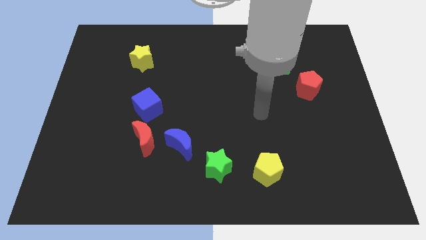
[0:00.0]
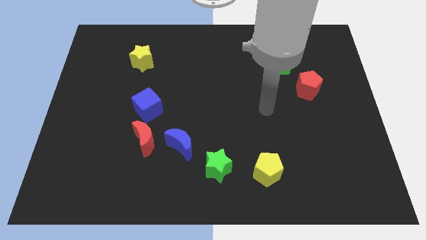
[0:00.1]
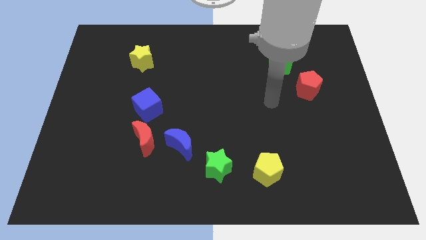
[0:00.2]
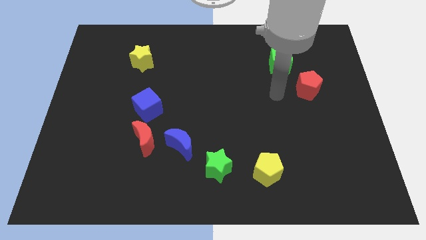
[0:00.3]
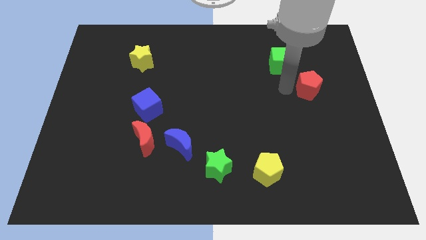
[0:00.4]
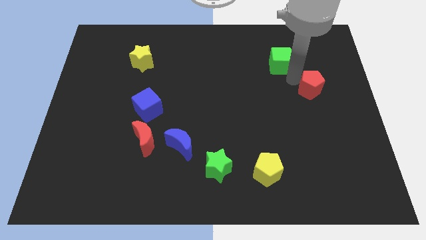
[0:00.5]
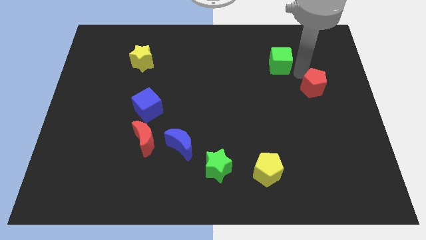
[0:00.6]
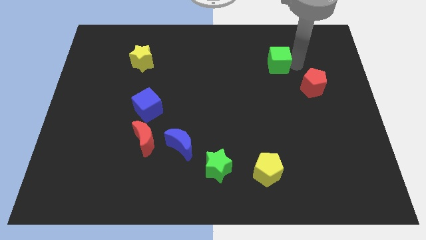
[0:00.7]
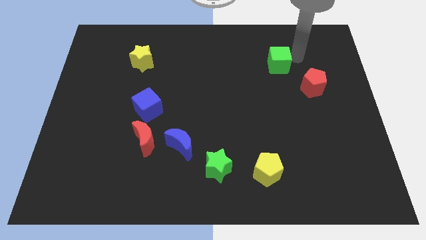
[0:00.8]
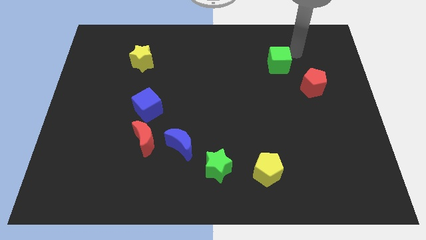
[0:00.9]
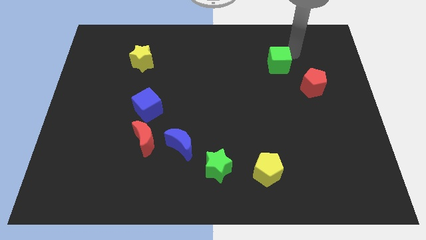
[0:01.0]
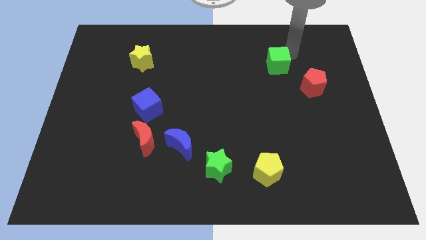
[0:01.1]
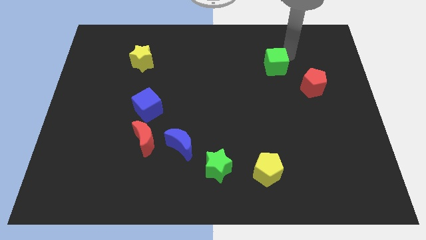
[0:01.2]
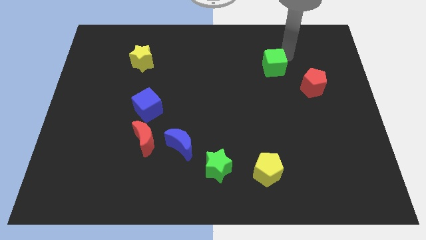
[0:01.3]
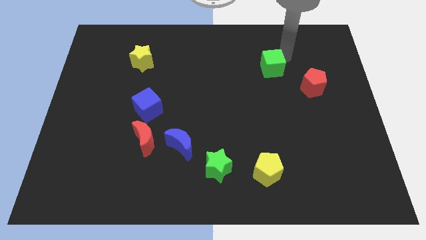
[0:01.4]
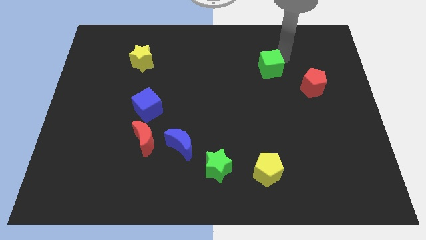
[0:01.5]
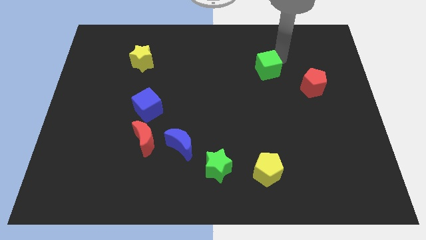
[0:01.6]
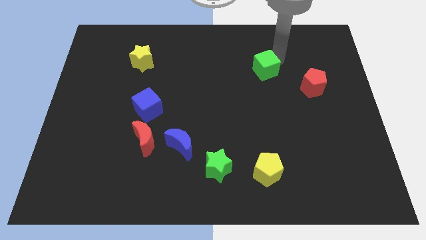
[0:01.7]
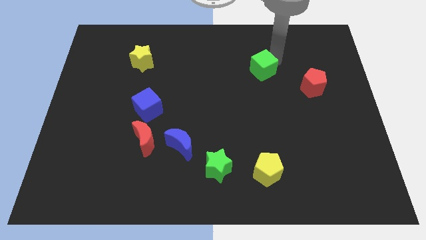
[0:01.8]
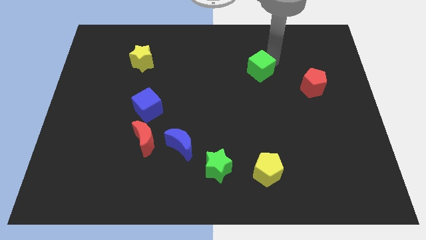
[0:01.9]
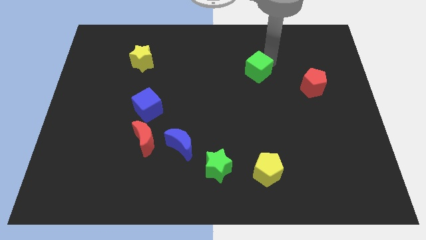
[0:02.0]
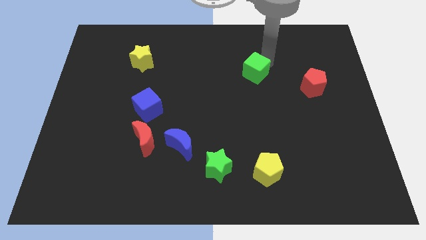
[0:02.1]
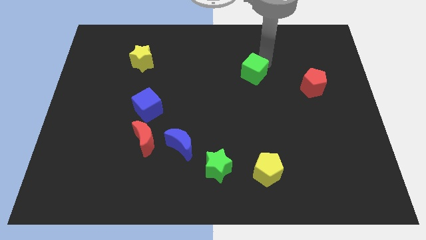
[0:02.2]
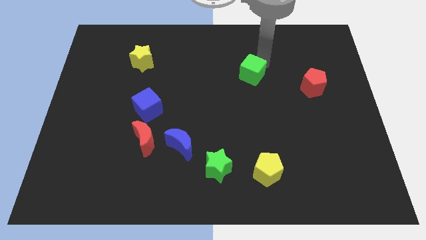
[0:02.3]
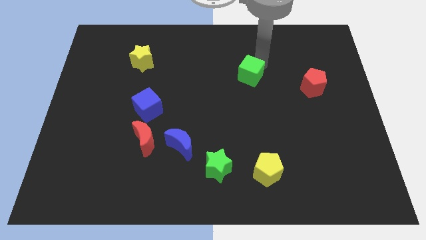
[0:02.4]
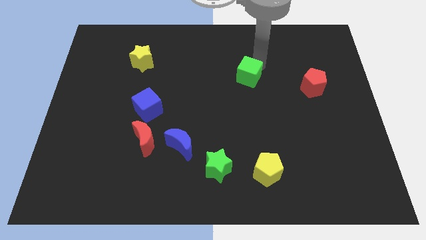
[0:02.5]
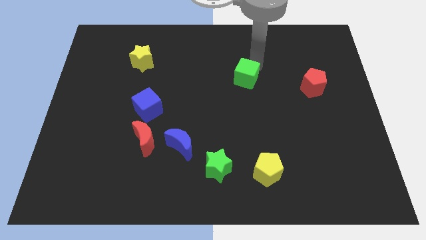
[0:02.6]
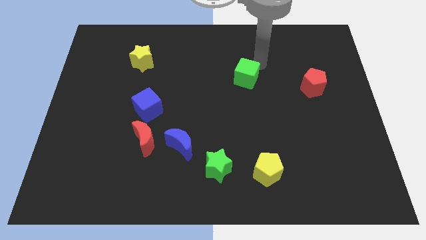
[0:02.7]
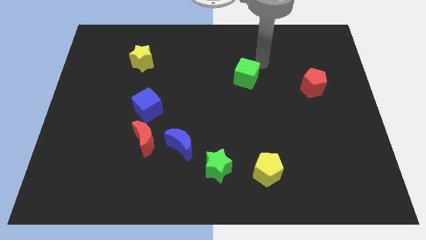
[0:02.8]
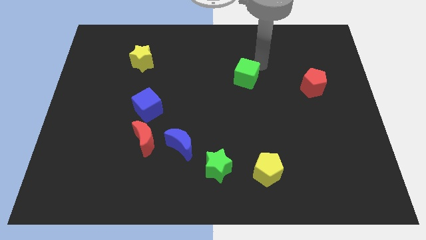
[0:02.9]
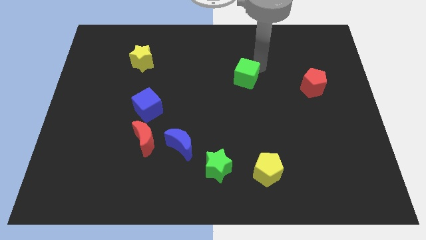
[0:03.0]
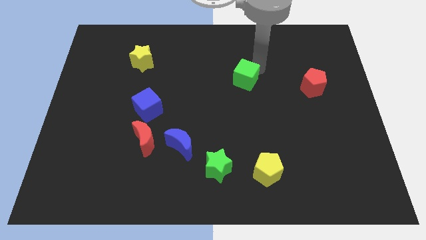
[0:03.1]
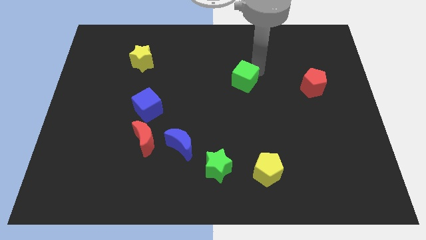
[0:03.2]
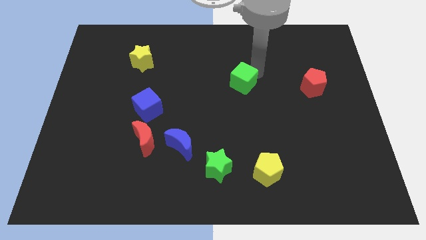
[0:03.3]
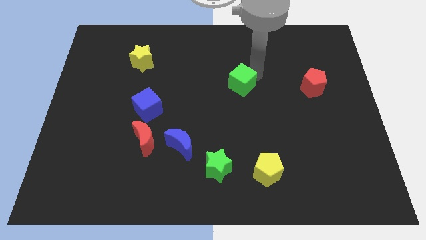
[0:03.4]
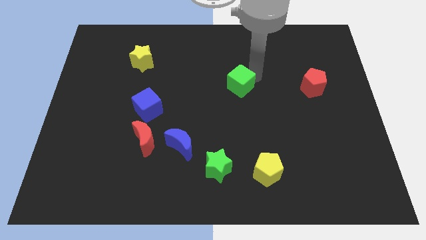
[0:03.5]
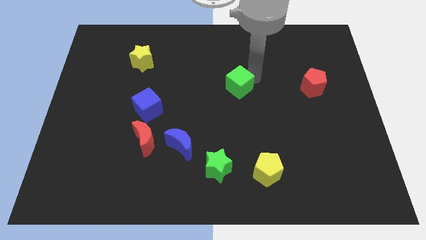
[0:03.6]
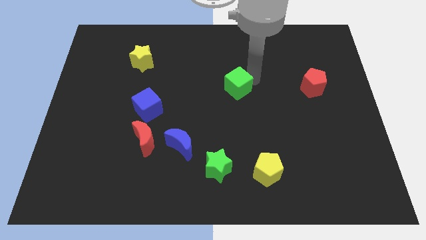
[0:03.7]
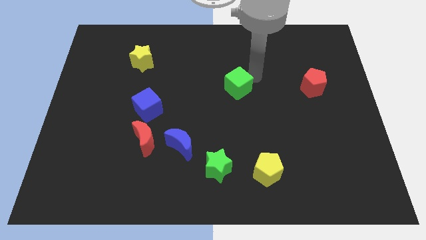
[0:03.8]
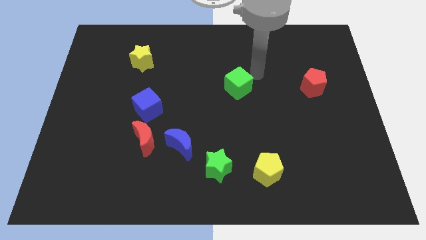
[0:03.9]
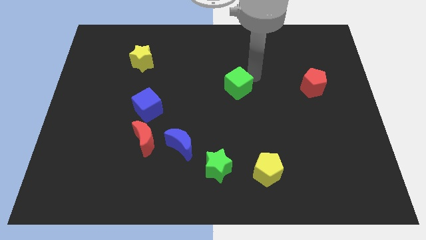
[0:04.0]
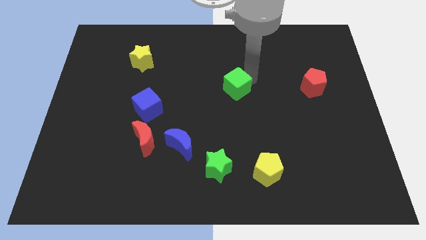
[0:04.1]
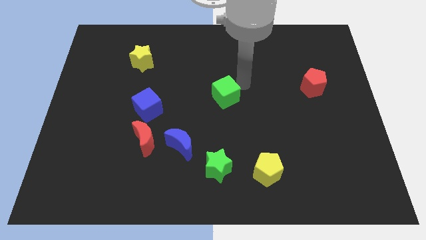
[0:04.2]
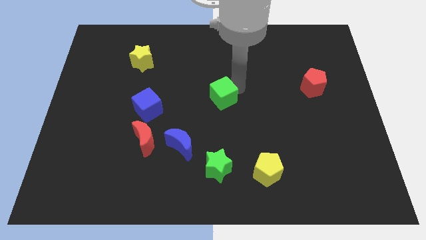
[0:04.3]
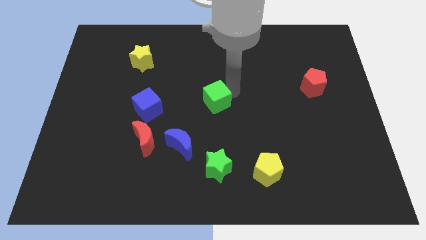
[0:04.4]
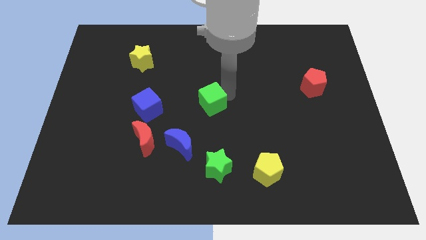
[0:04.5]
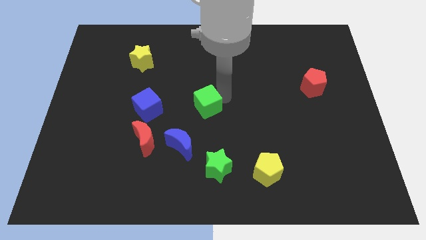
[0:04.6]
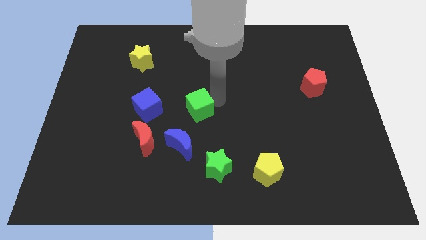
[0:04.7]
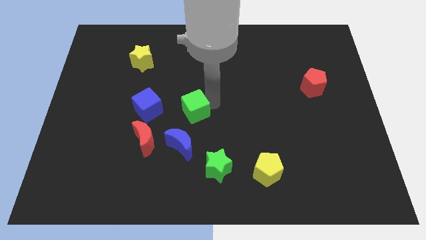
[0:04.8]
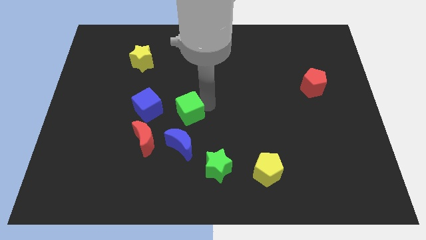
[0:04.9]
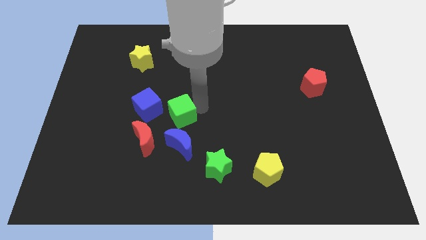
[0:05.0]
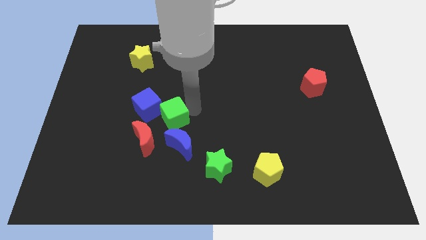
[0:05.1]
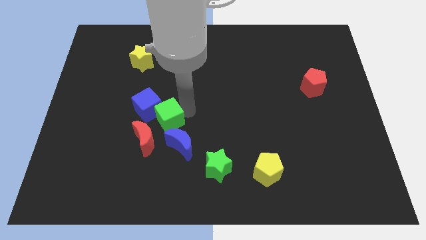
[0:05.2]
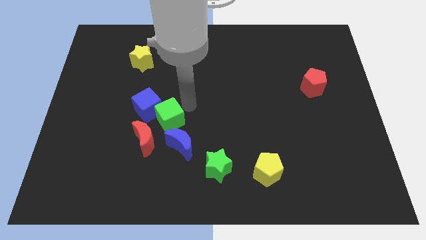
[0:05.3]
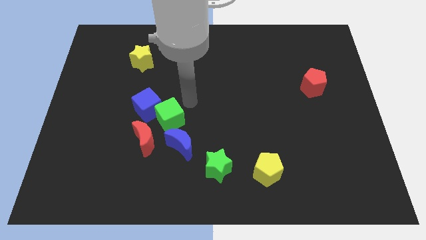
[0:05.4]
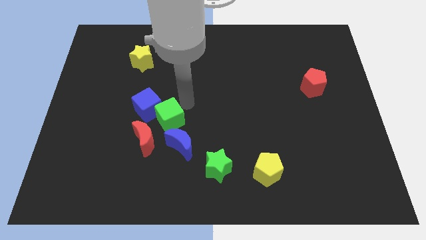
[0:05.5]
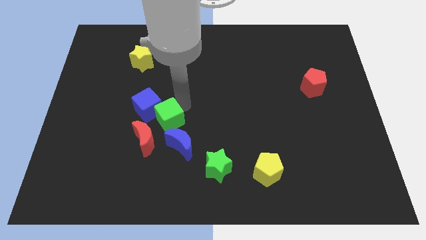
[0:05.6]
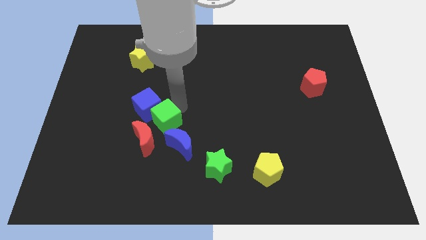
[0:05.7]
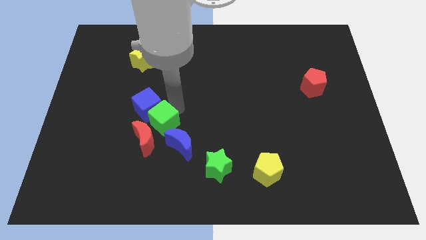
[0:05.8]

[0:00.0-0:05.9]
move the green cube towards the red moon

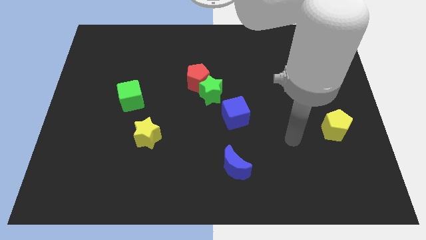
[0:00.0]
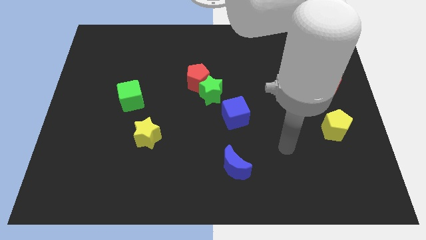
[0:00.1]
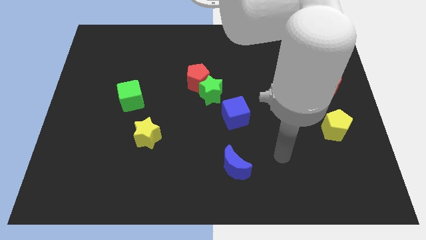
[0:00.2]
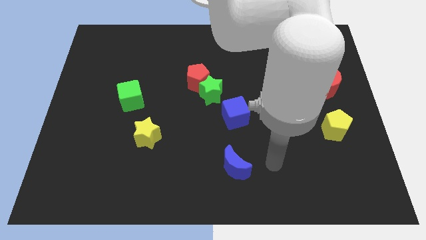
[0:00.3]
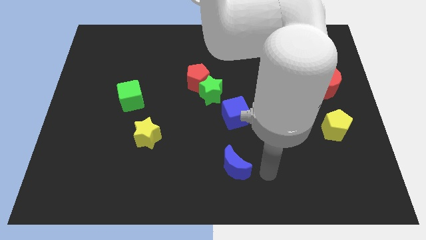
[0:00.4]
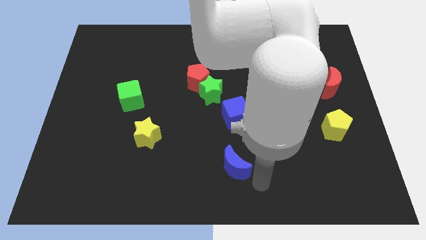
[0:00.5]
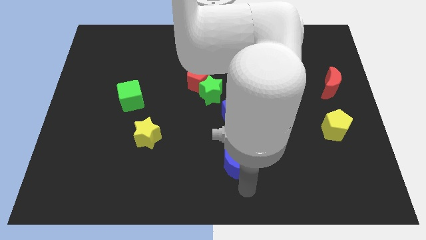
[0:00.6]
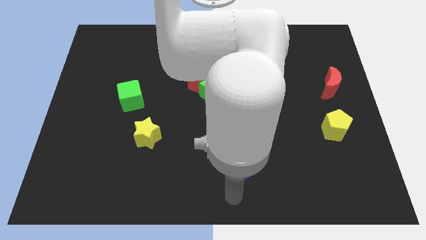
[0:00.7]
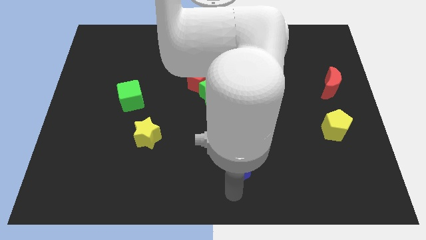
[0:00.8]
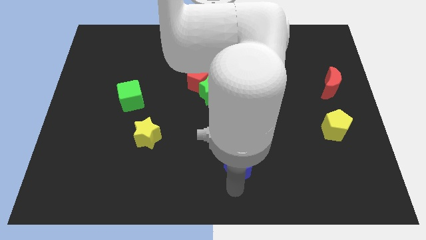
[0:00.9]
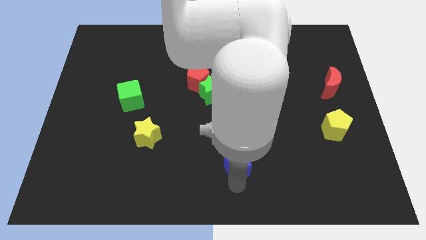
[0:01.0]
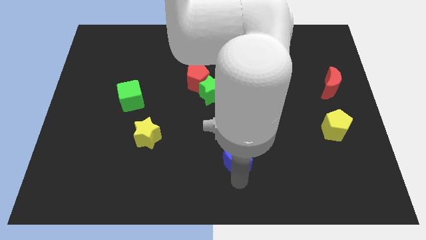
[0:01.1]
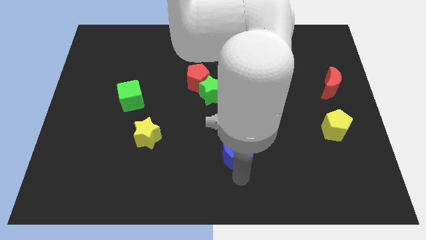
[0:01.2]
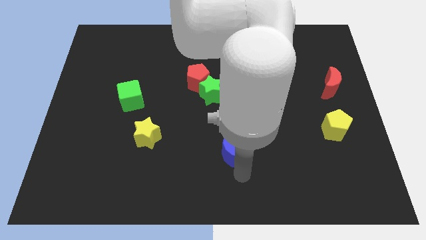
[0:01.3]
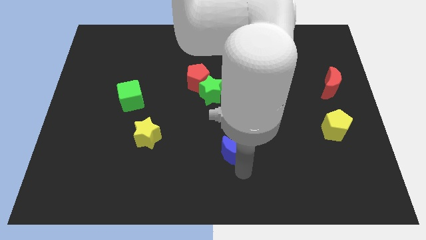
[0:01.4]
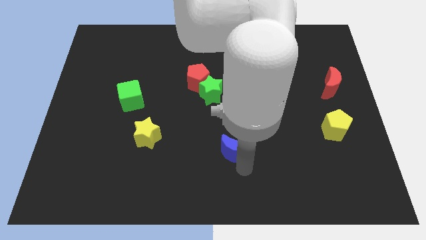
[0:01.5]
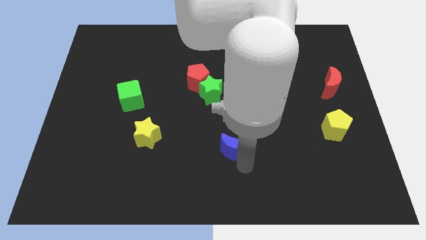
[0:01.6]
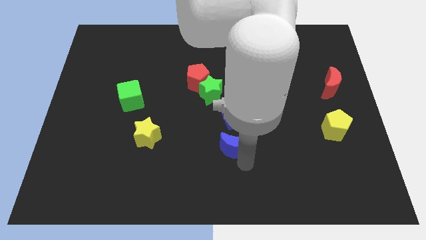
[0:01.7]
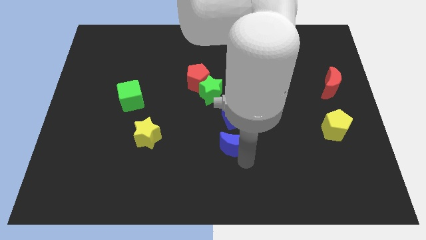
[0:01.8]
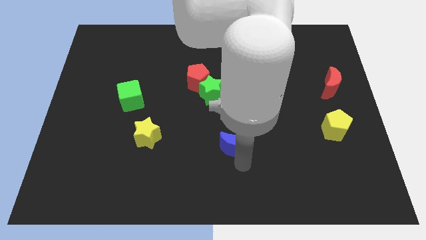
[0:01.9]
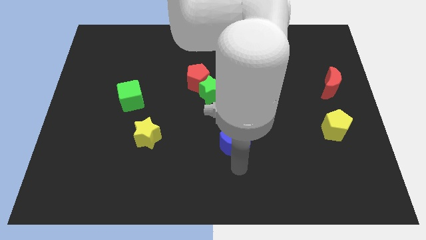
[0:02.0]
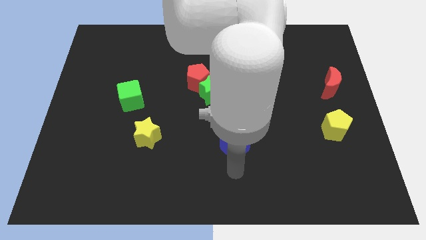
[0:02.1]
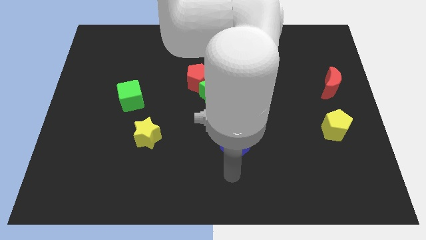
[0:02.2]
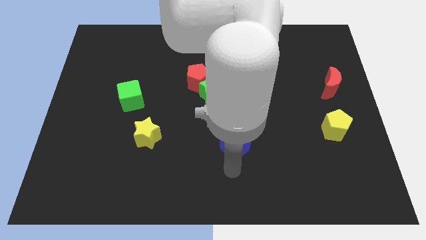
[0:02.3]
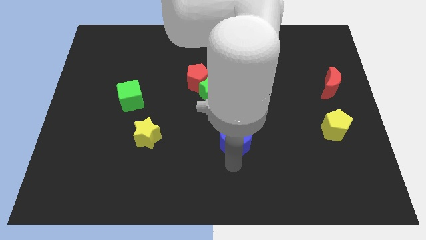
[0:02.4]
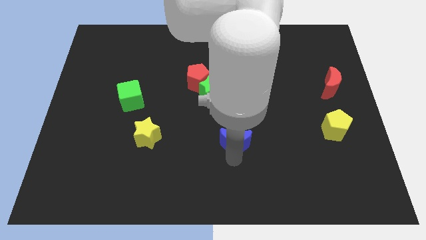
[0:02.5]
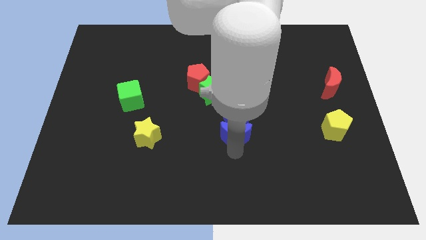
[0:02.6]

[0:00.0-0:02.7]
move the blue moon close to the blue cube
